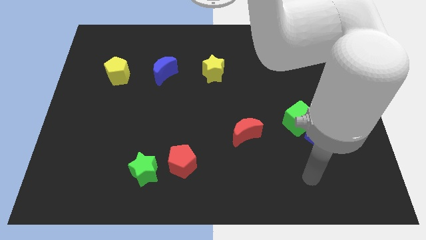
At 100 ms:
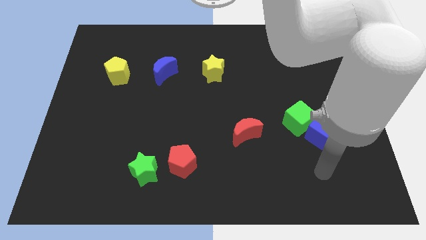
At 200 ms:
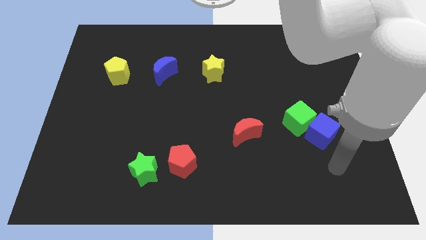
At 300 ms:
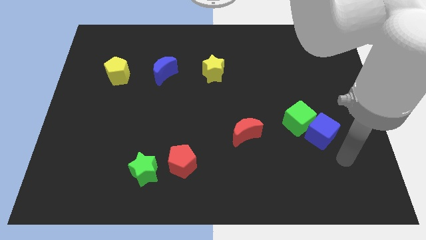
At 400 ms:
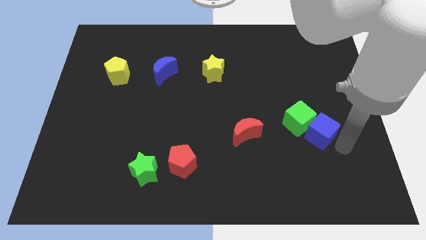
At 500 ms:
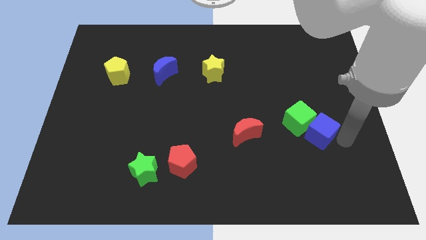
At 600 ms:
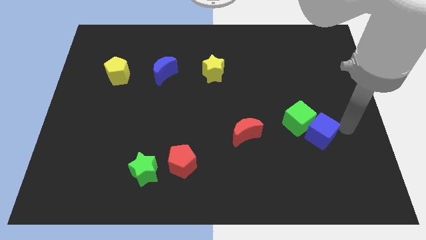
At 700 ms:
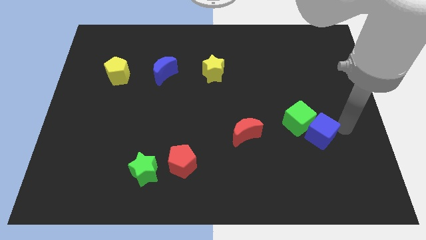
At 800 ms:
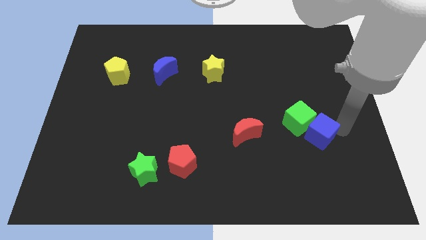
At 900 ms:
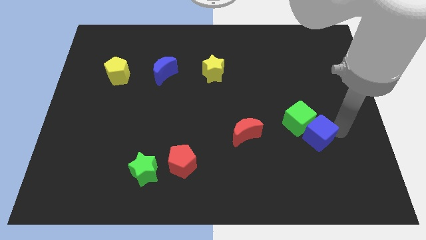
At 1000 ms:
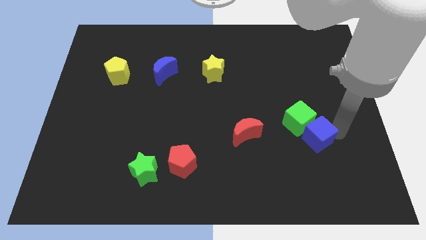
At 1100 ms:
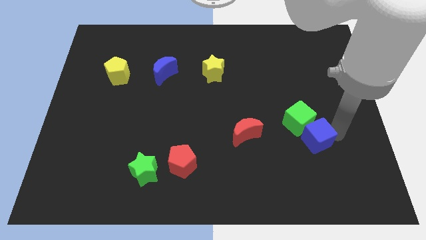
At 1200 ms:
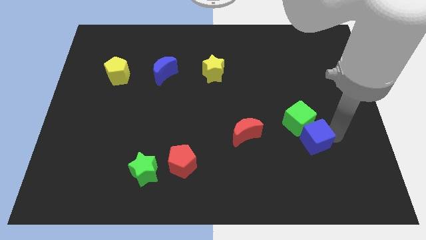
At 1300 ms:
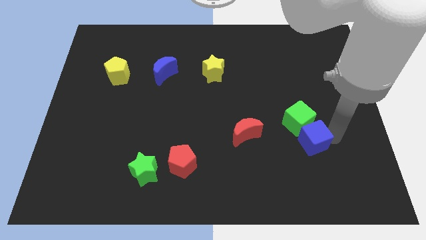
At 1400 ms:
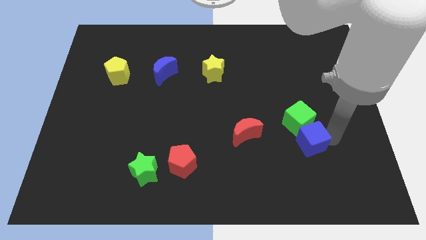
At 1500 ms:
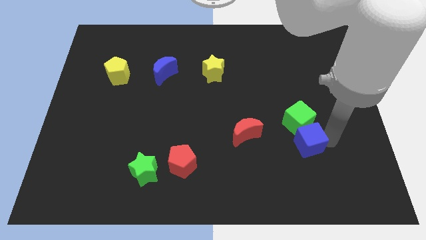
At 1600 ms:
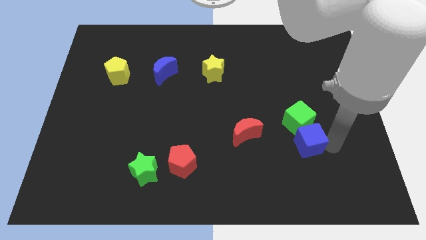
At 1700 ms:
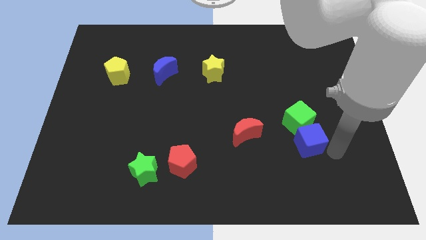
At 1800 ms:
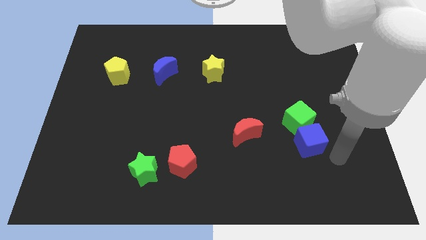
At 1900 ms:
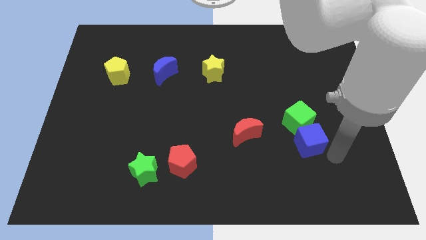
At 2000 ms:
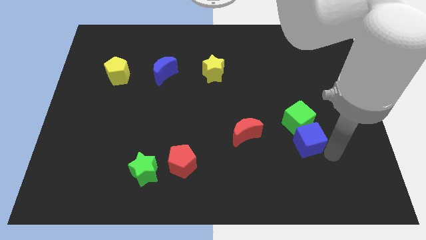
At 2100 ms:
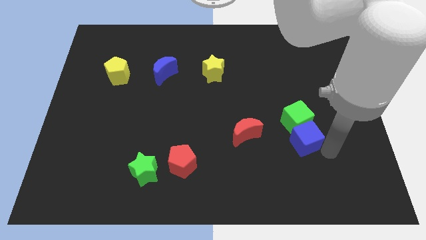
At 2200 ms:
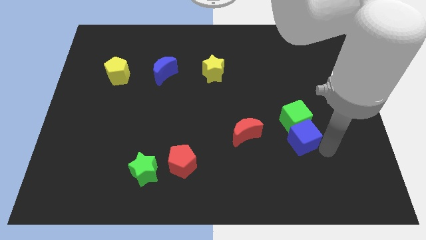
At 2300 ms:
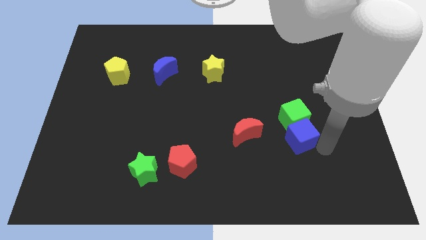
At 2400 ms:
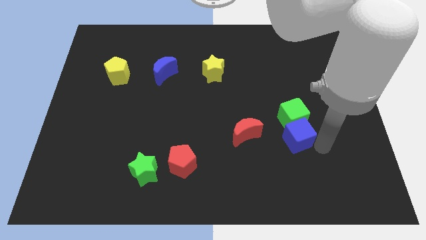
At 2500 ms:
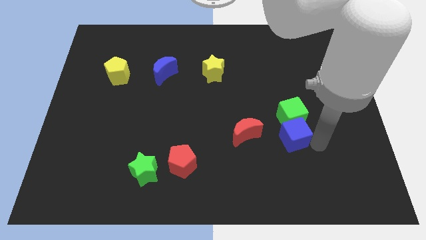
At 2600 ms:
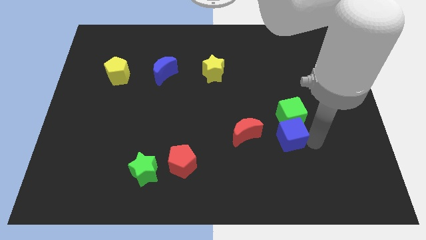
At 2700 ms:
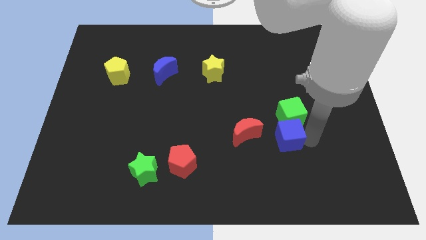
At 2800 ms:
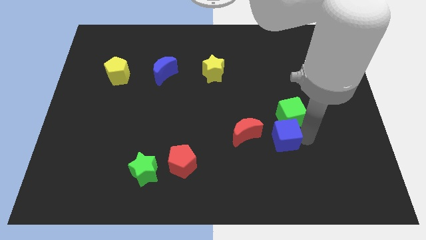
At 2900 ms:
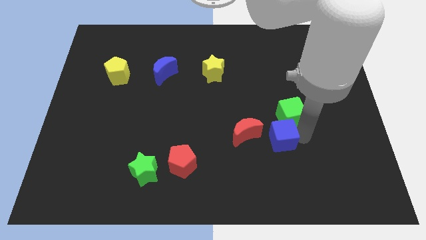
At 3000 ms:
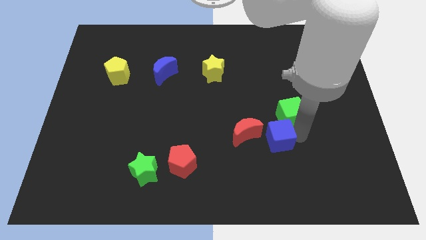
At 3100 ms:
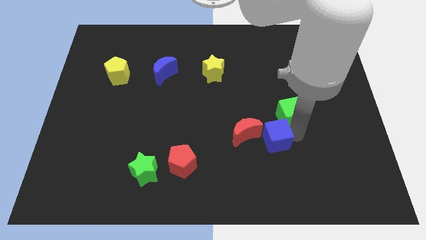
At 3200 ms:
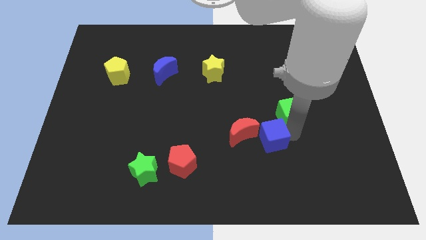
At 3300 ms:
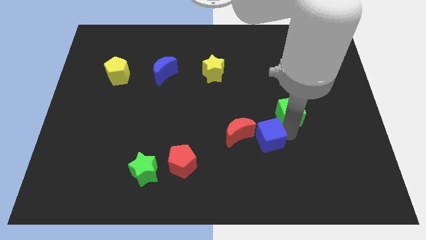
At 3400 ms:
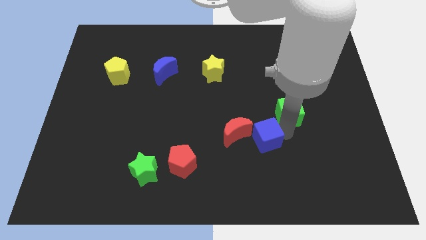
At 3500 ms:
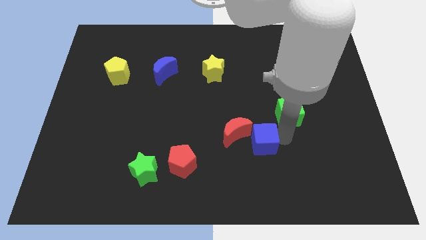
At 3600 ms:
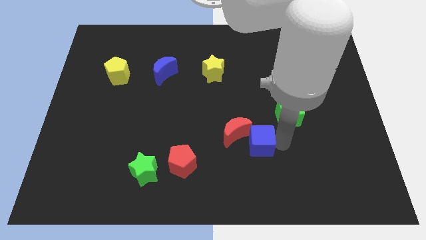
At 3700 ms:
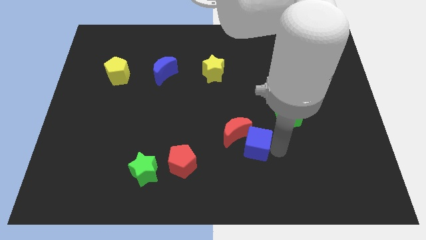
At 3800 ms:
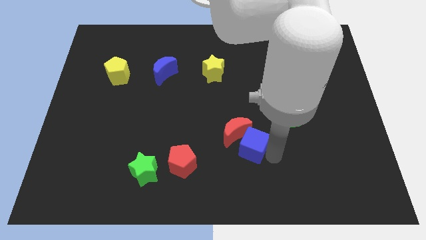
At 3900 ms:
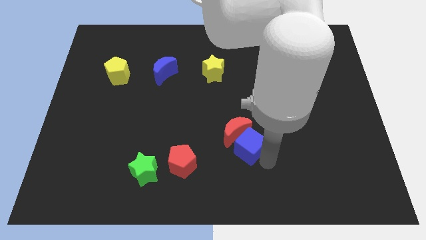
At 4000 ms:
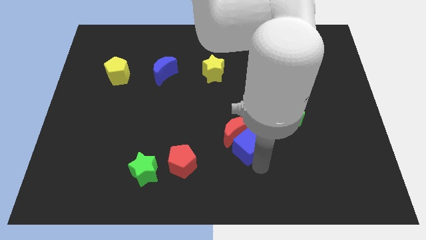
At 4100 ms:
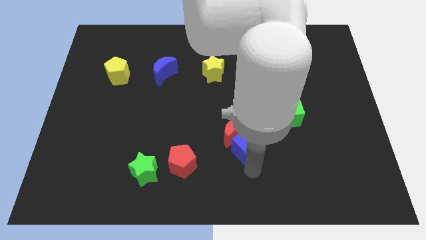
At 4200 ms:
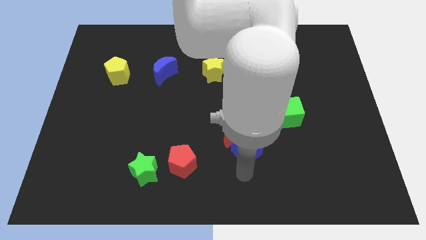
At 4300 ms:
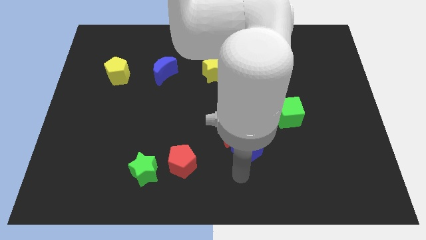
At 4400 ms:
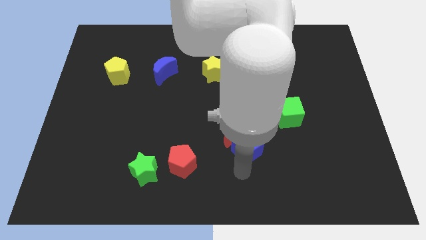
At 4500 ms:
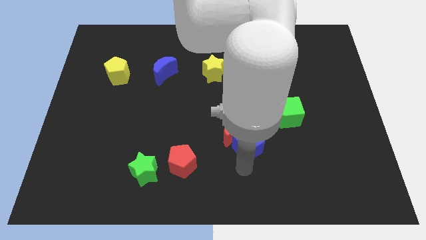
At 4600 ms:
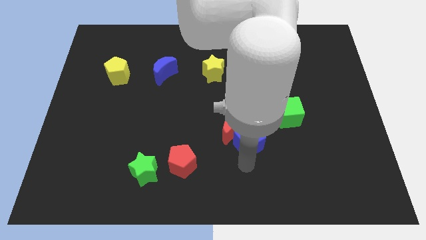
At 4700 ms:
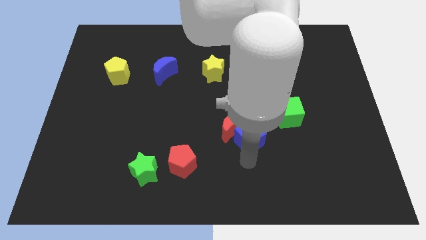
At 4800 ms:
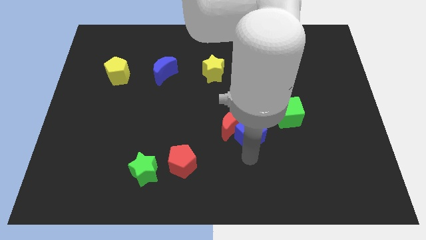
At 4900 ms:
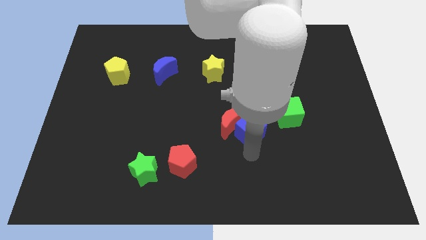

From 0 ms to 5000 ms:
push the blue cube to the top right side of the red moon

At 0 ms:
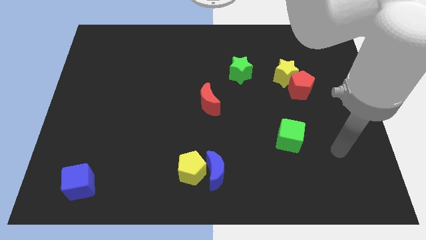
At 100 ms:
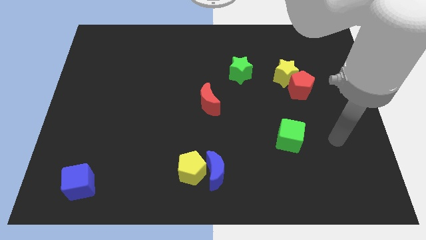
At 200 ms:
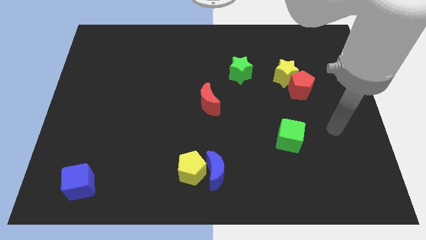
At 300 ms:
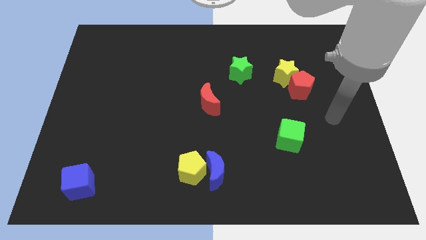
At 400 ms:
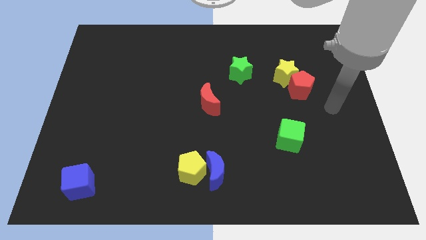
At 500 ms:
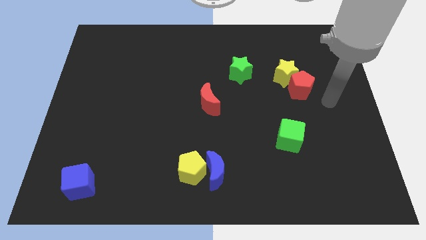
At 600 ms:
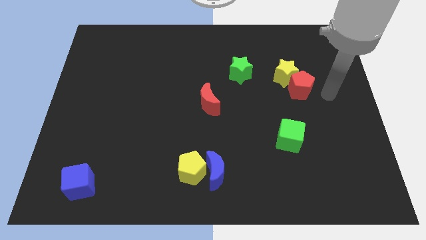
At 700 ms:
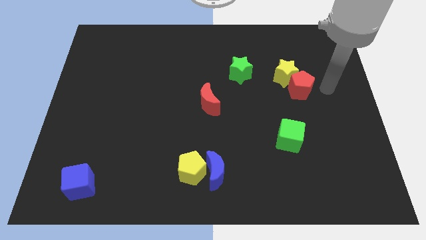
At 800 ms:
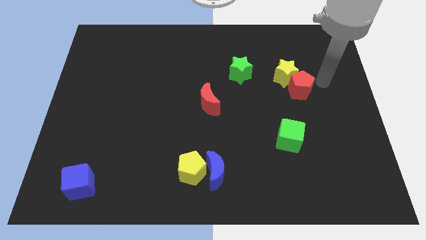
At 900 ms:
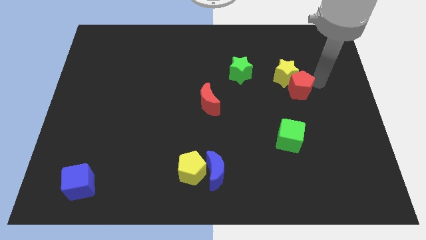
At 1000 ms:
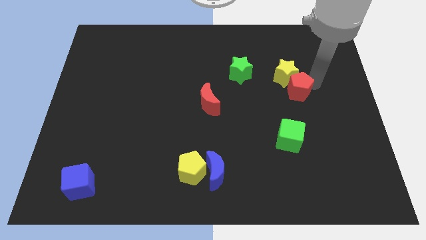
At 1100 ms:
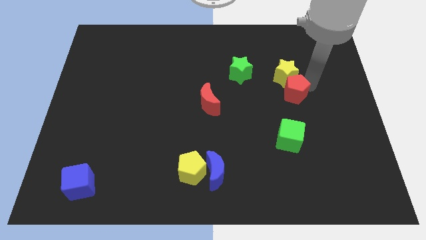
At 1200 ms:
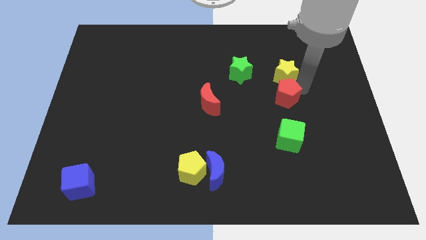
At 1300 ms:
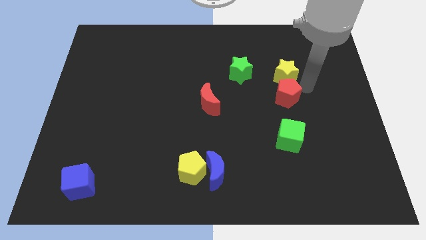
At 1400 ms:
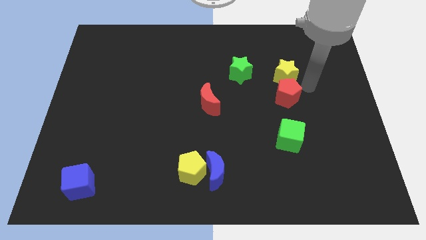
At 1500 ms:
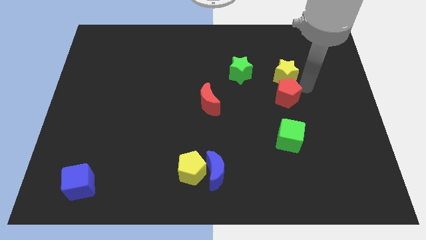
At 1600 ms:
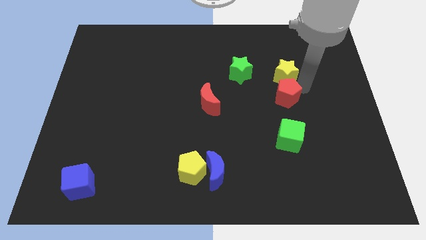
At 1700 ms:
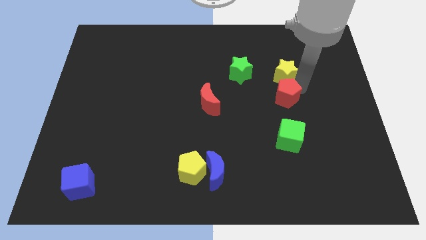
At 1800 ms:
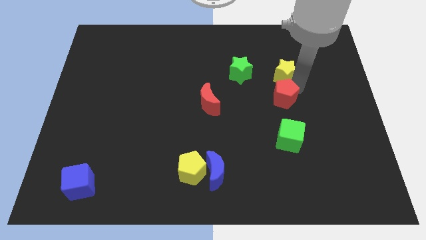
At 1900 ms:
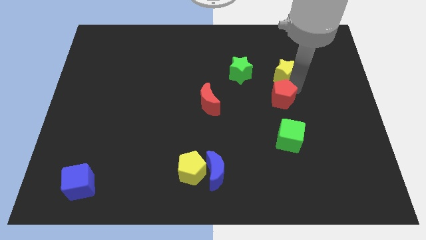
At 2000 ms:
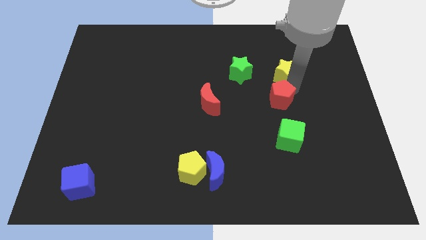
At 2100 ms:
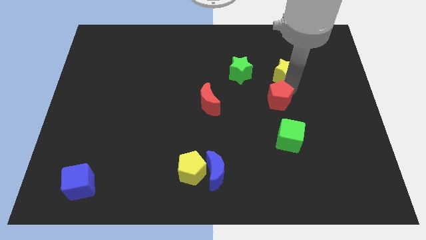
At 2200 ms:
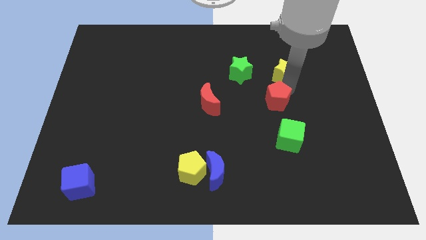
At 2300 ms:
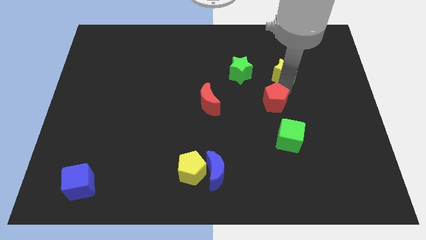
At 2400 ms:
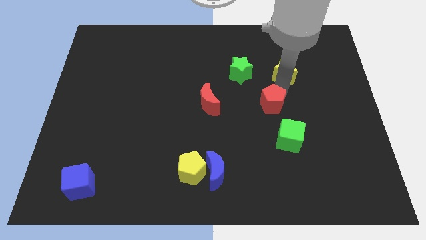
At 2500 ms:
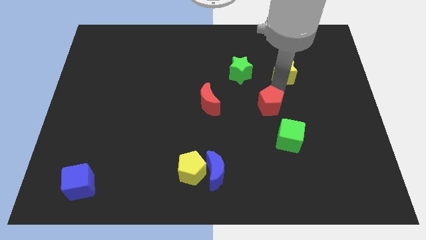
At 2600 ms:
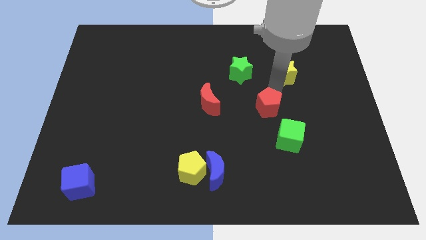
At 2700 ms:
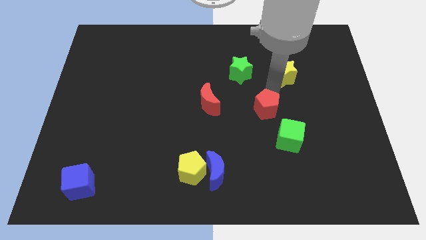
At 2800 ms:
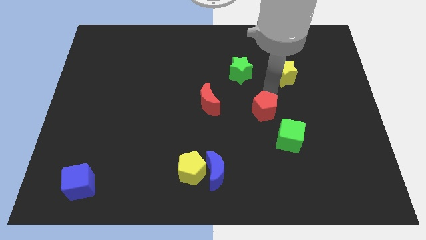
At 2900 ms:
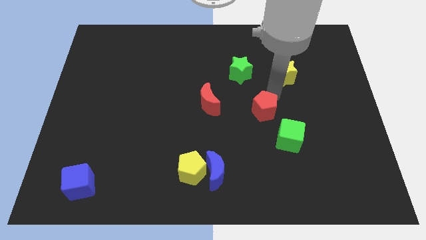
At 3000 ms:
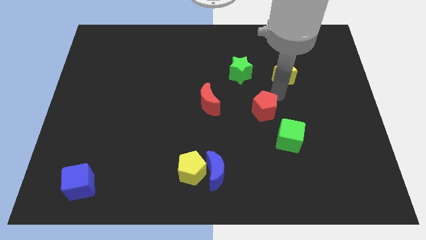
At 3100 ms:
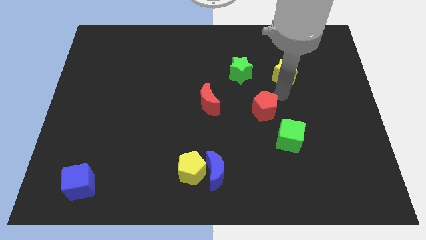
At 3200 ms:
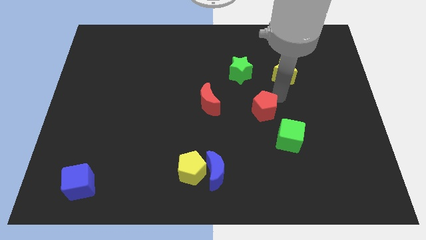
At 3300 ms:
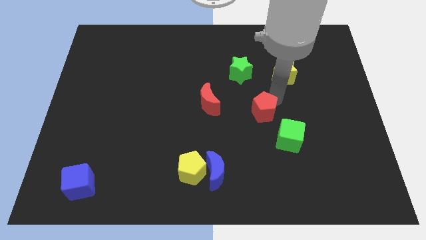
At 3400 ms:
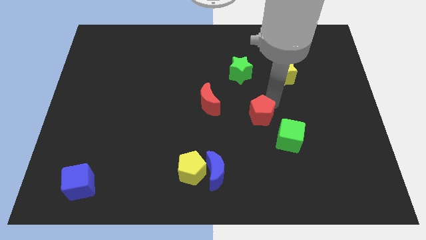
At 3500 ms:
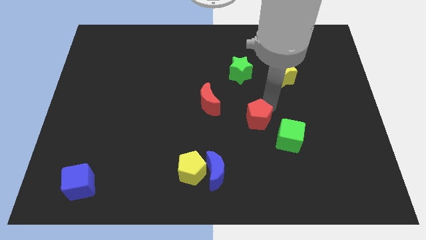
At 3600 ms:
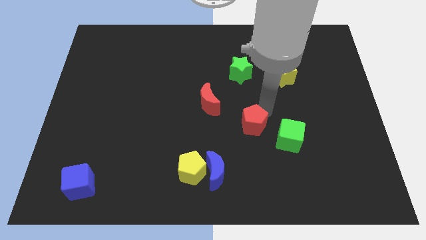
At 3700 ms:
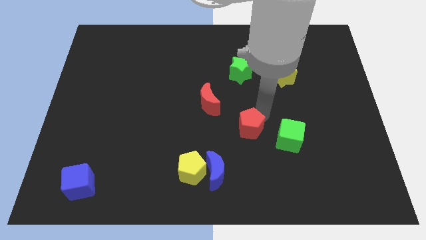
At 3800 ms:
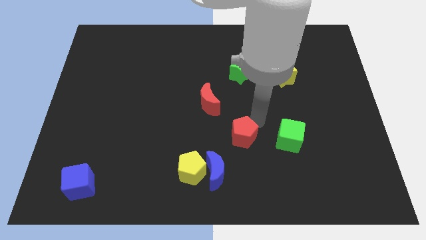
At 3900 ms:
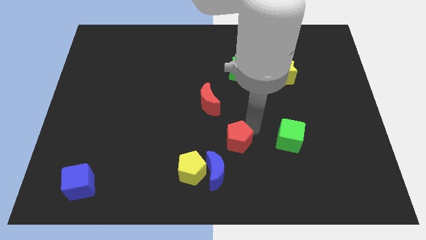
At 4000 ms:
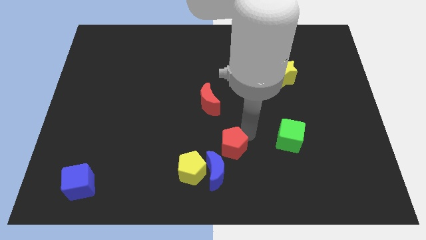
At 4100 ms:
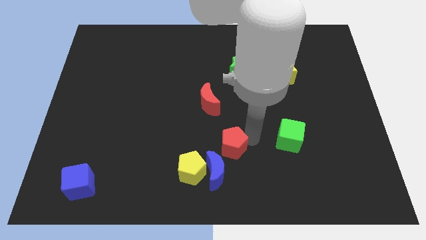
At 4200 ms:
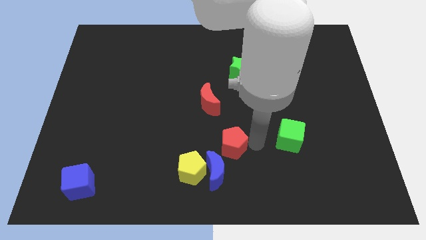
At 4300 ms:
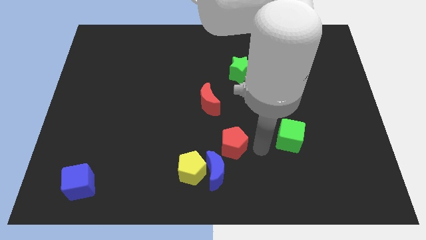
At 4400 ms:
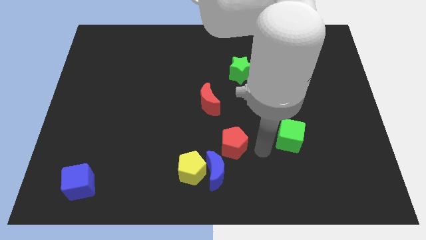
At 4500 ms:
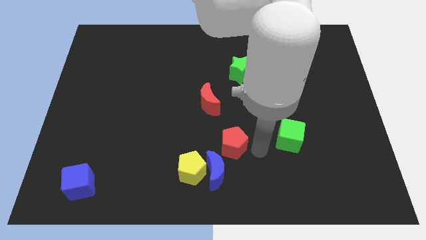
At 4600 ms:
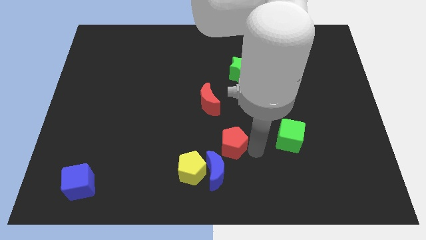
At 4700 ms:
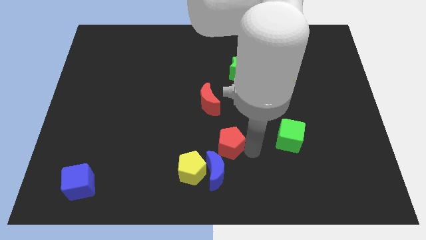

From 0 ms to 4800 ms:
move the red pentagon to the bottom side of the red moon
